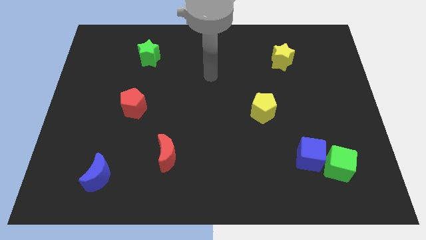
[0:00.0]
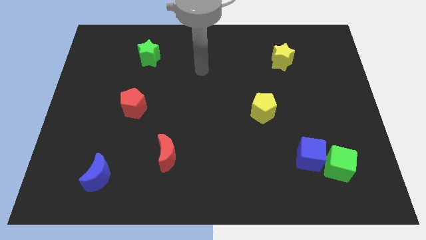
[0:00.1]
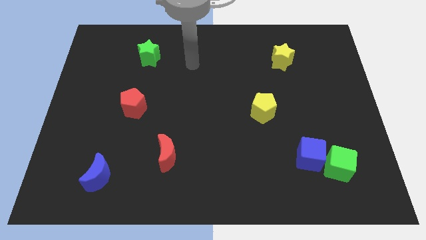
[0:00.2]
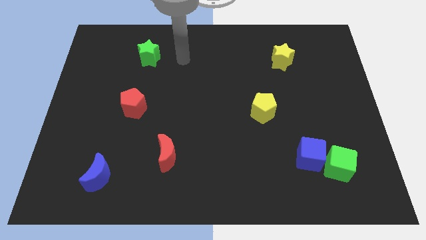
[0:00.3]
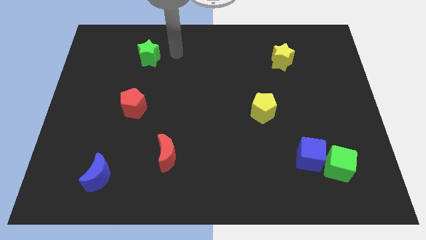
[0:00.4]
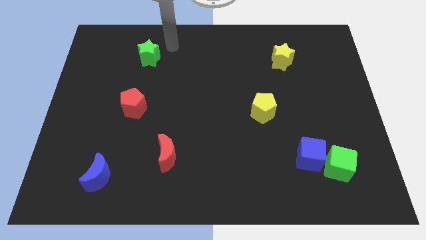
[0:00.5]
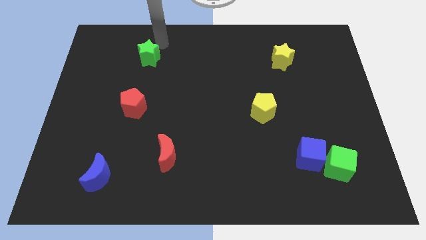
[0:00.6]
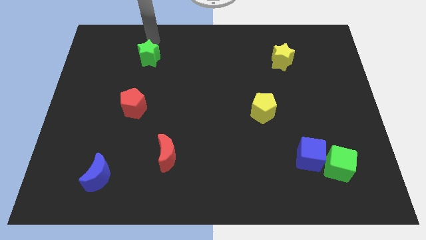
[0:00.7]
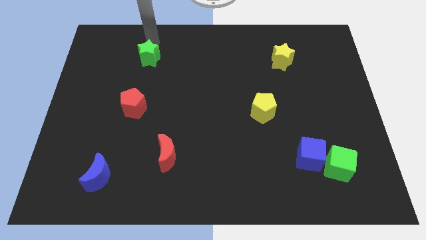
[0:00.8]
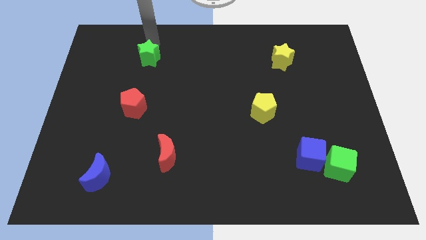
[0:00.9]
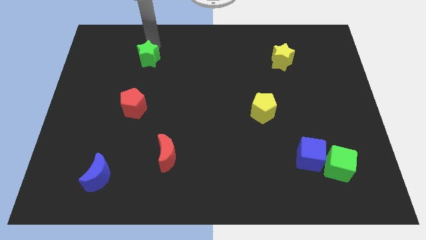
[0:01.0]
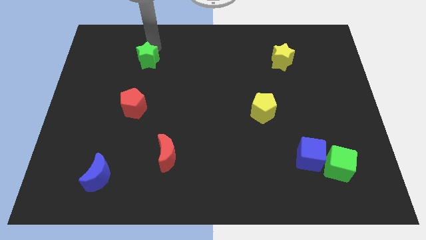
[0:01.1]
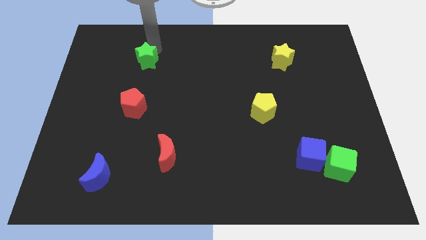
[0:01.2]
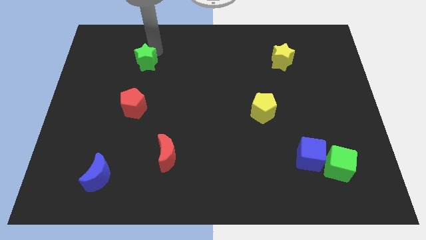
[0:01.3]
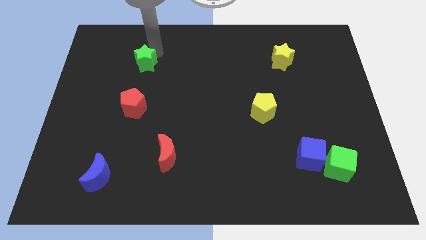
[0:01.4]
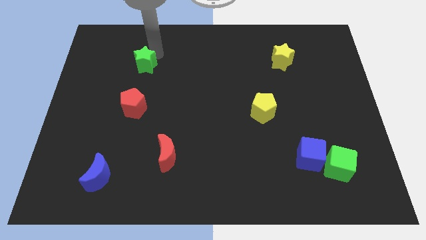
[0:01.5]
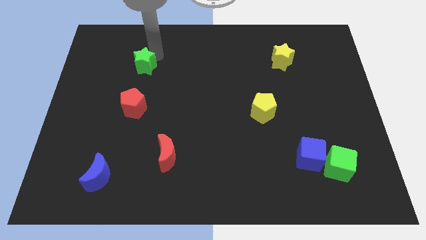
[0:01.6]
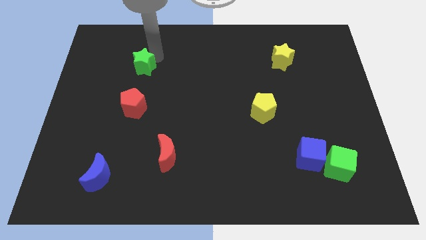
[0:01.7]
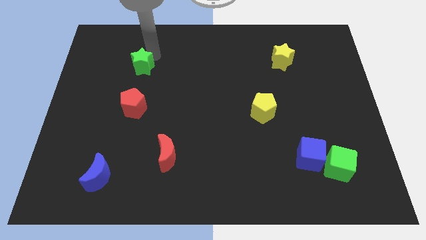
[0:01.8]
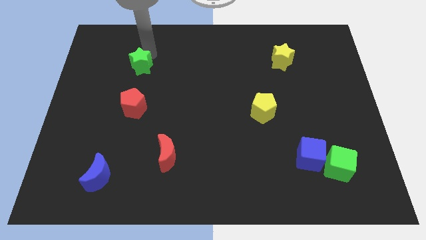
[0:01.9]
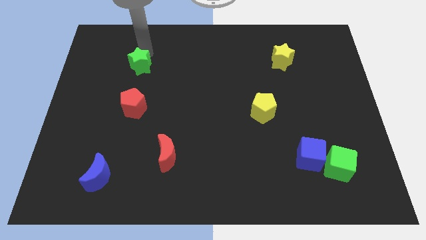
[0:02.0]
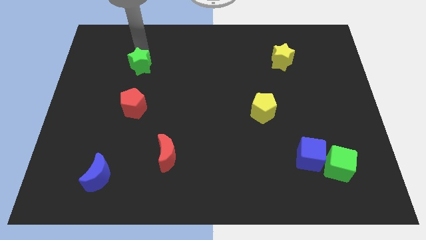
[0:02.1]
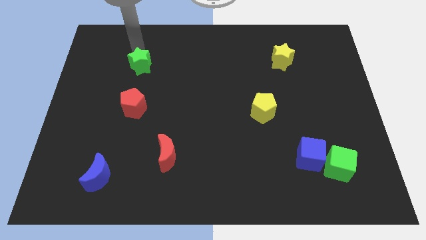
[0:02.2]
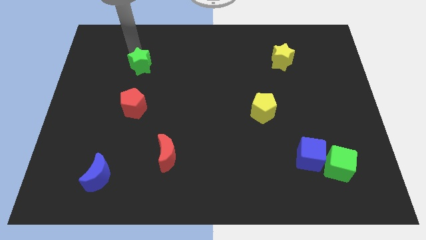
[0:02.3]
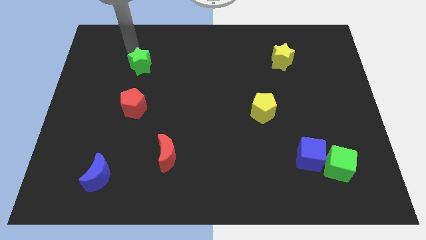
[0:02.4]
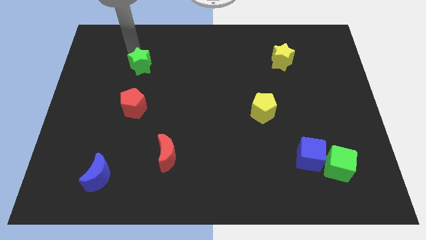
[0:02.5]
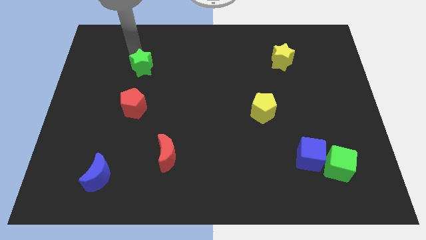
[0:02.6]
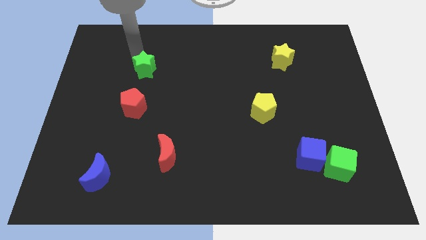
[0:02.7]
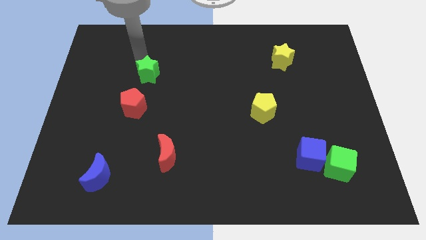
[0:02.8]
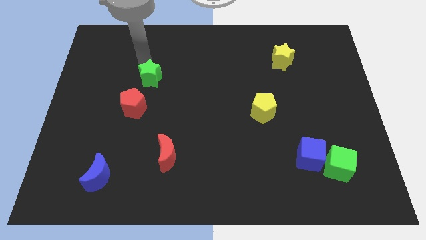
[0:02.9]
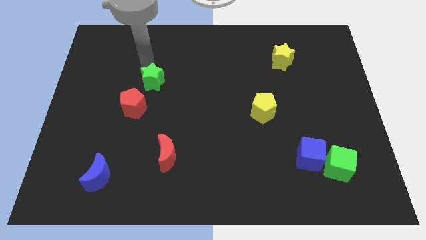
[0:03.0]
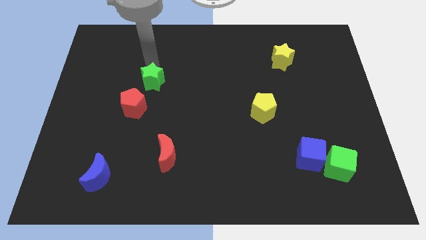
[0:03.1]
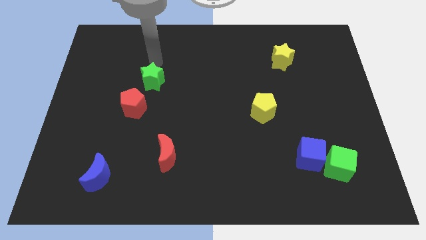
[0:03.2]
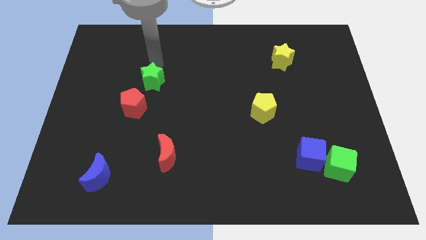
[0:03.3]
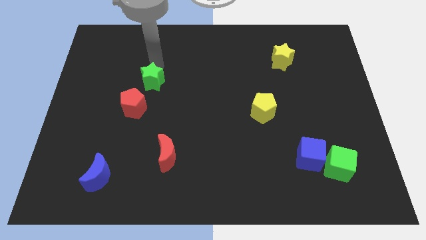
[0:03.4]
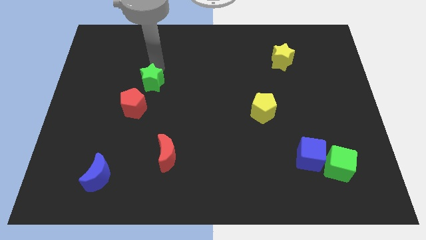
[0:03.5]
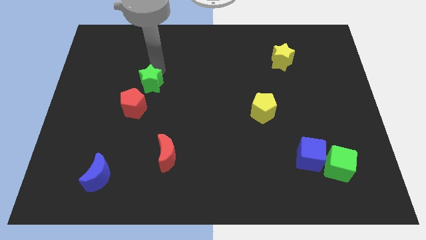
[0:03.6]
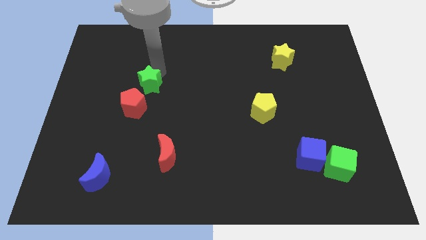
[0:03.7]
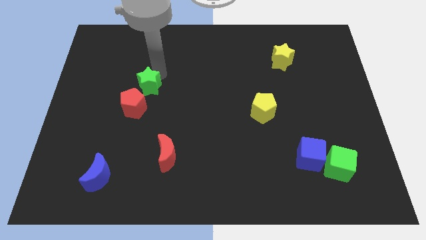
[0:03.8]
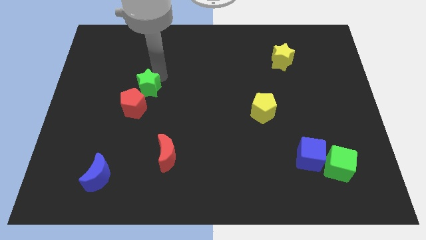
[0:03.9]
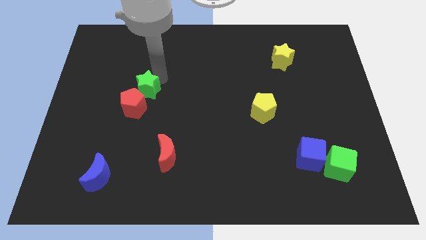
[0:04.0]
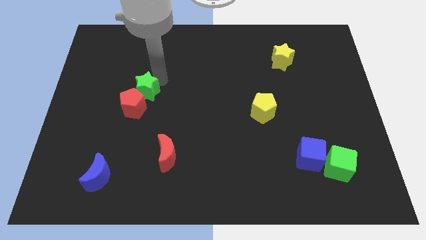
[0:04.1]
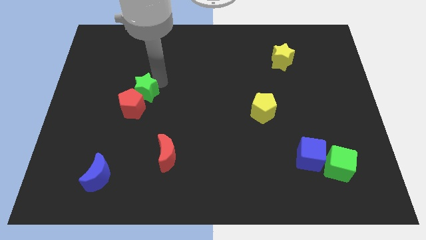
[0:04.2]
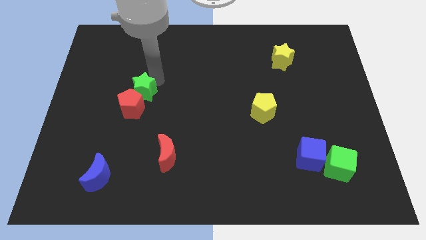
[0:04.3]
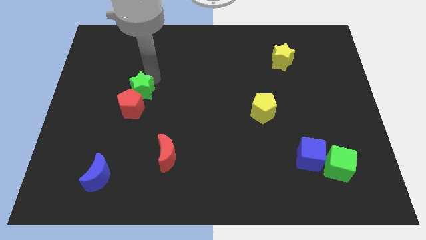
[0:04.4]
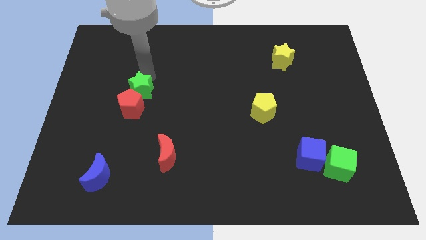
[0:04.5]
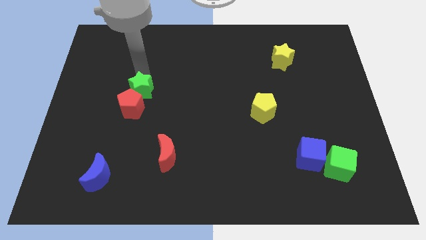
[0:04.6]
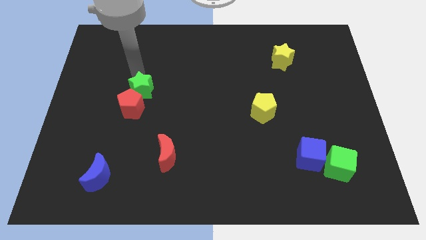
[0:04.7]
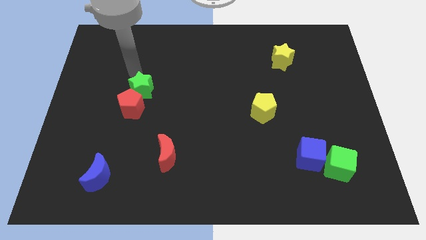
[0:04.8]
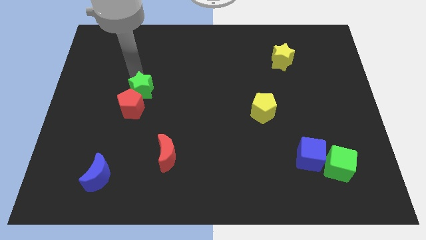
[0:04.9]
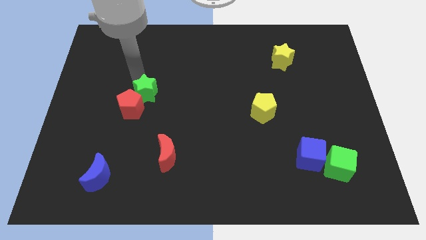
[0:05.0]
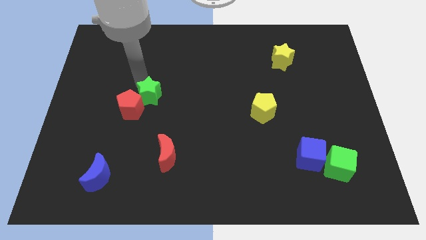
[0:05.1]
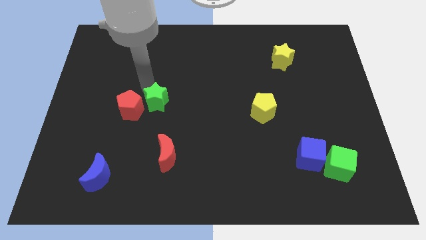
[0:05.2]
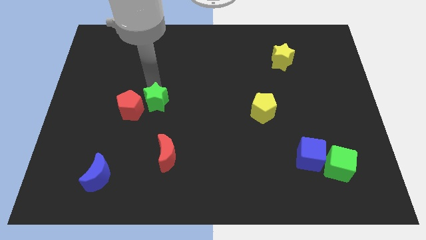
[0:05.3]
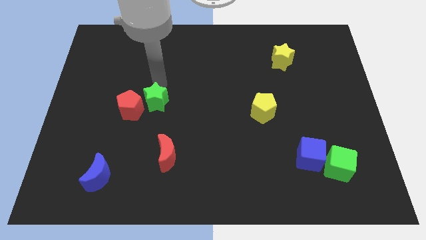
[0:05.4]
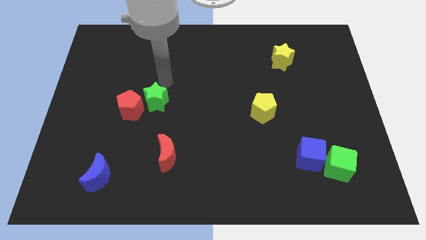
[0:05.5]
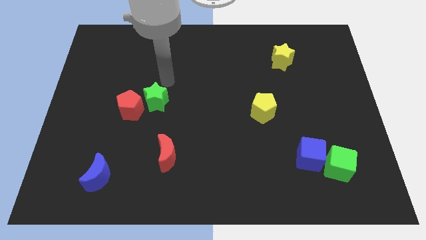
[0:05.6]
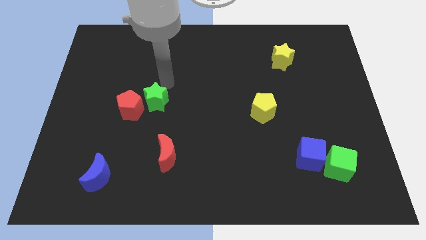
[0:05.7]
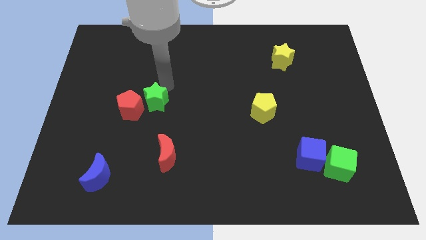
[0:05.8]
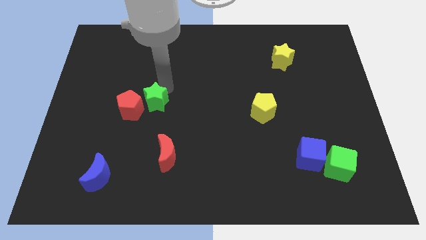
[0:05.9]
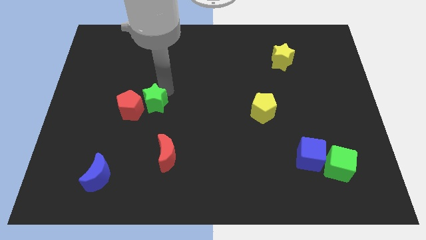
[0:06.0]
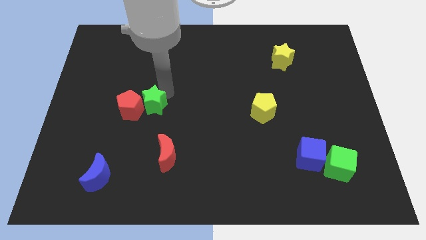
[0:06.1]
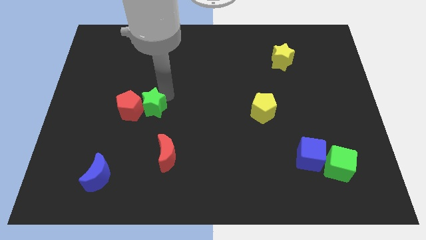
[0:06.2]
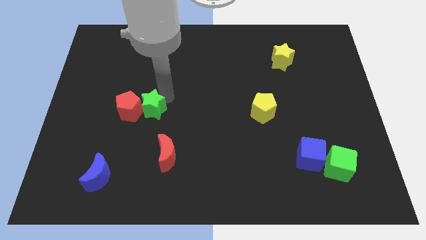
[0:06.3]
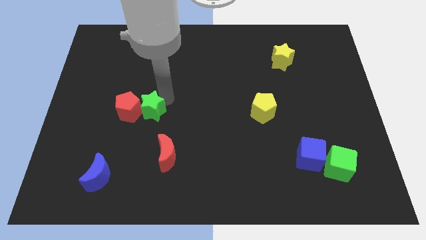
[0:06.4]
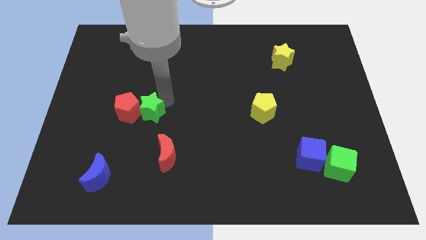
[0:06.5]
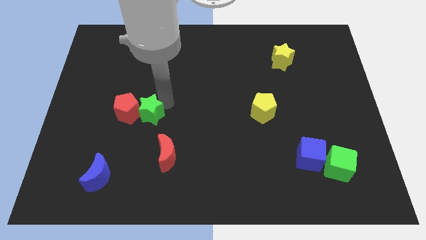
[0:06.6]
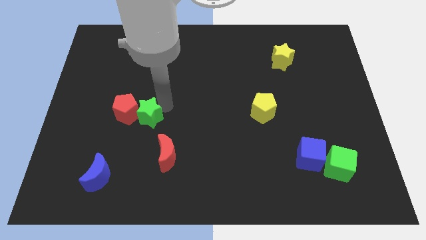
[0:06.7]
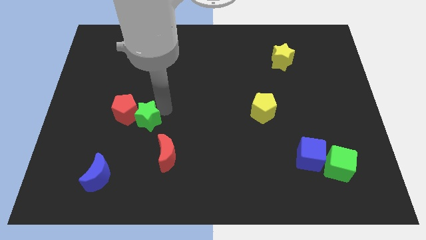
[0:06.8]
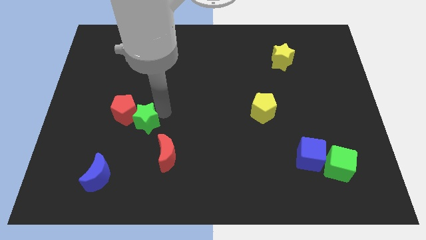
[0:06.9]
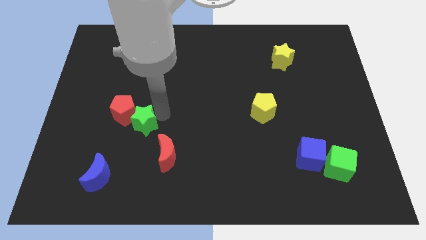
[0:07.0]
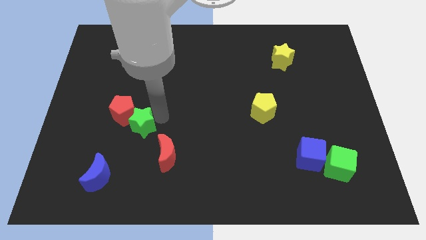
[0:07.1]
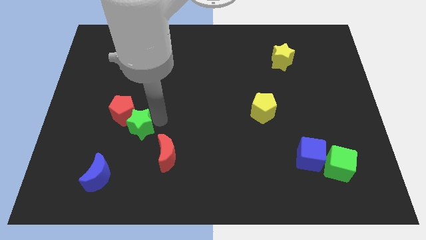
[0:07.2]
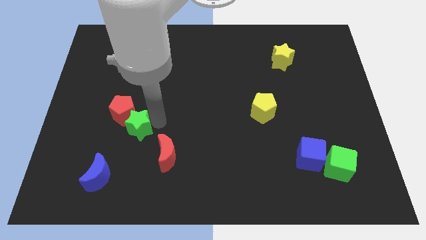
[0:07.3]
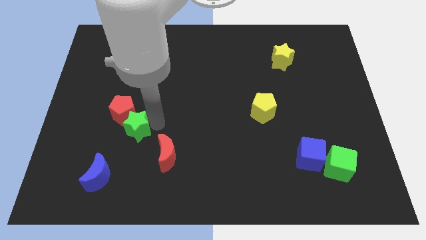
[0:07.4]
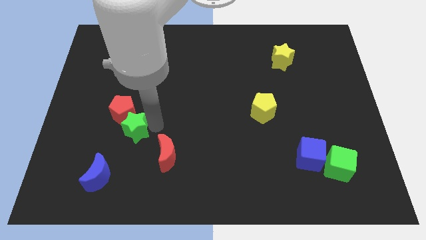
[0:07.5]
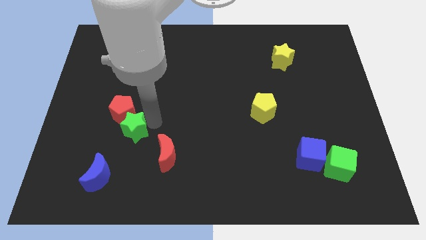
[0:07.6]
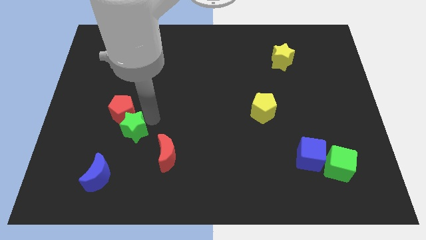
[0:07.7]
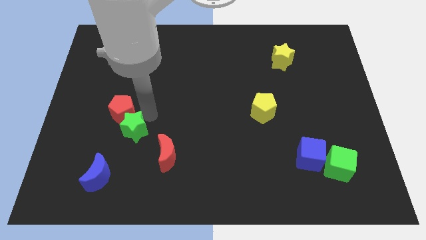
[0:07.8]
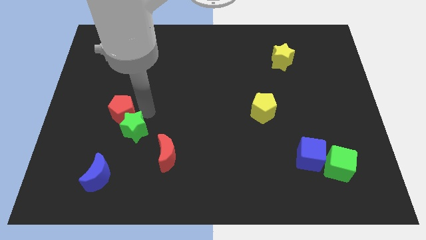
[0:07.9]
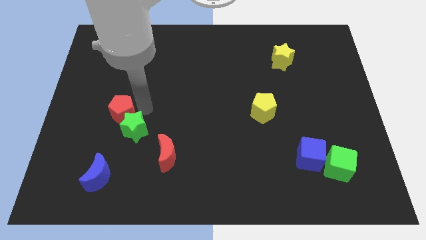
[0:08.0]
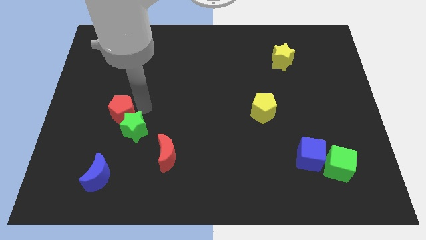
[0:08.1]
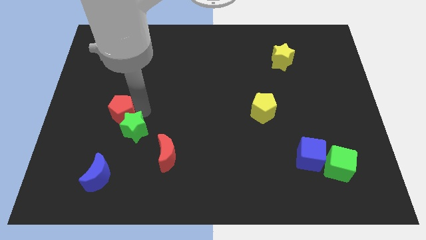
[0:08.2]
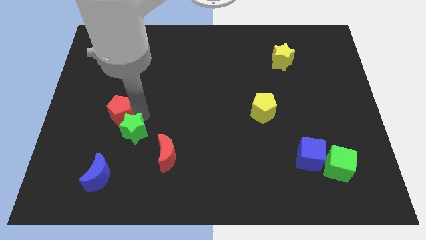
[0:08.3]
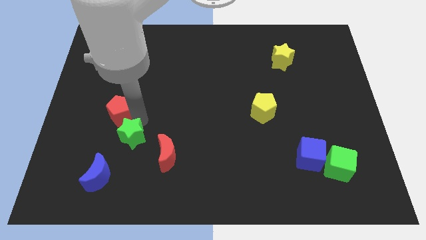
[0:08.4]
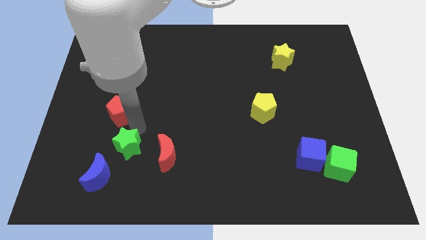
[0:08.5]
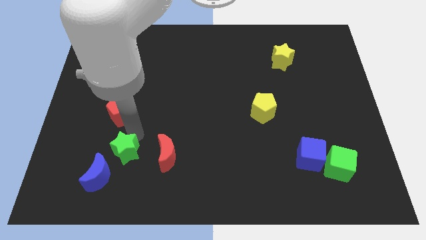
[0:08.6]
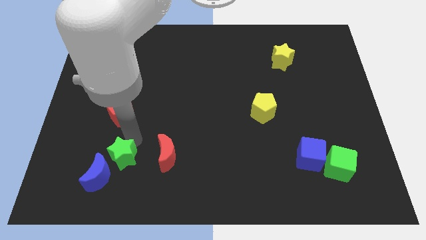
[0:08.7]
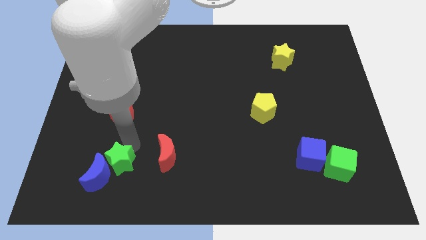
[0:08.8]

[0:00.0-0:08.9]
move the green star towards the blue moon
